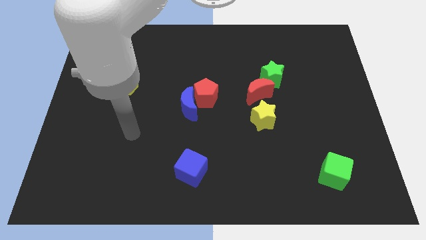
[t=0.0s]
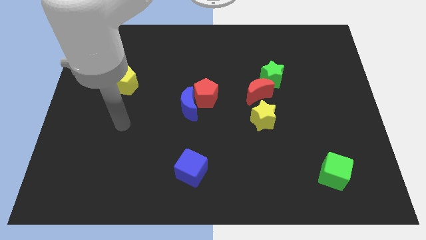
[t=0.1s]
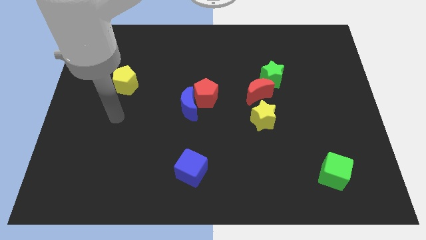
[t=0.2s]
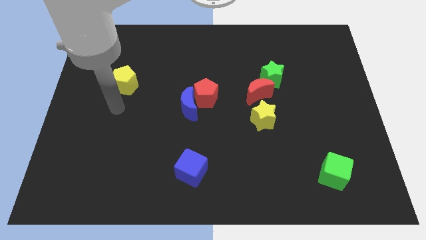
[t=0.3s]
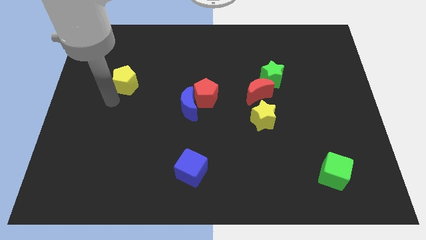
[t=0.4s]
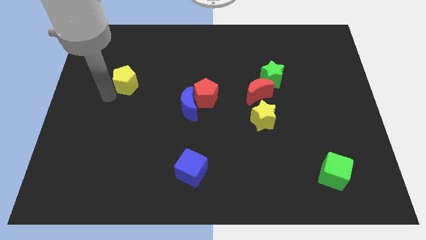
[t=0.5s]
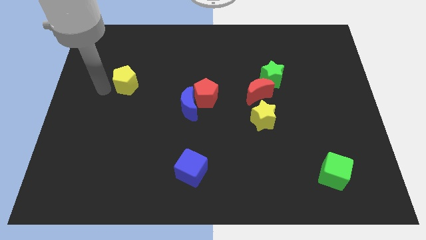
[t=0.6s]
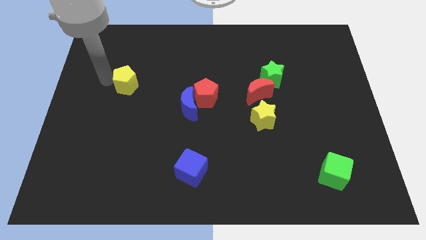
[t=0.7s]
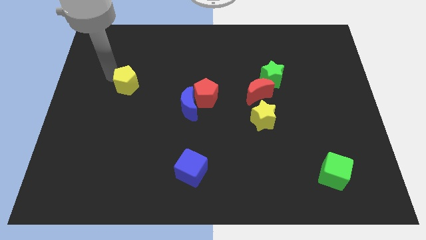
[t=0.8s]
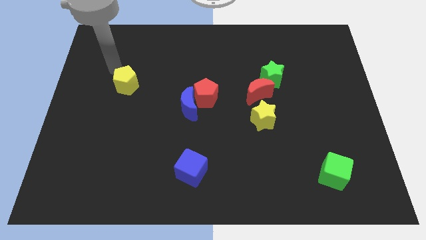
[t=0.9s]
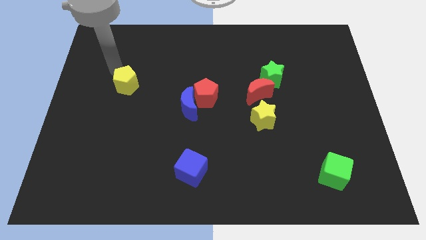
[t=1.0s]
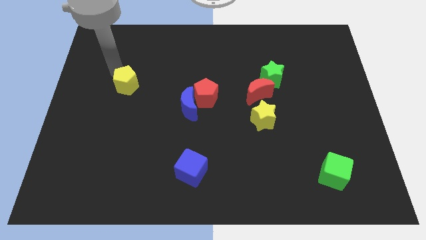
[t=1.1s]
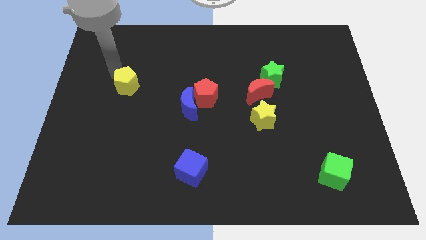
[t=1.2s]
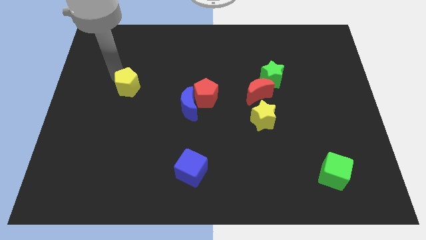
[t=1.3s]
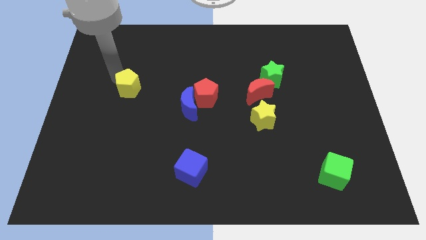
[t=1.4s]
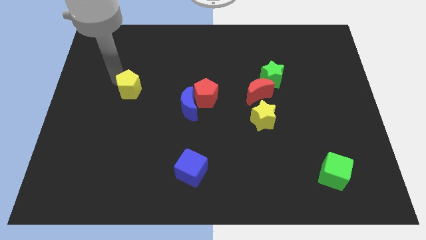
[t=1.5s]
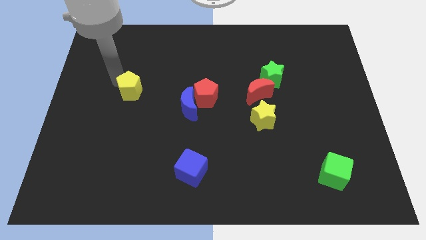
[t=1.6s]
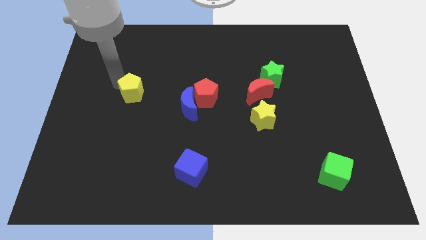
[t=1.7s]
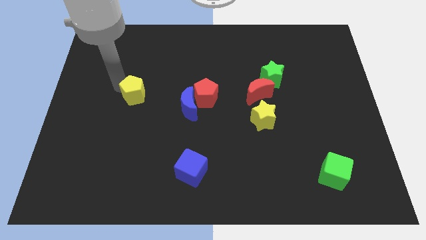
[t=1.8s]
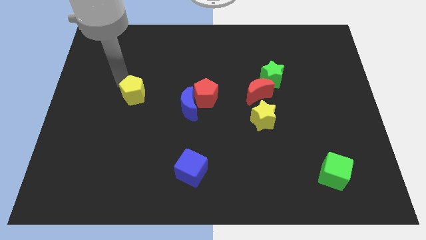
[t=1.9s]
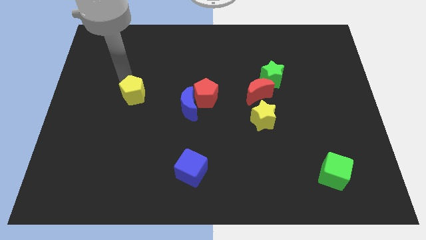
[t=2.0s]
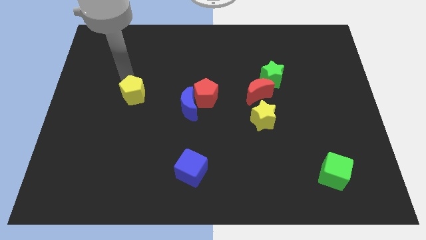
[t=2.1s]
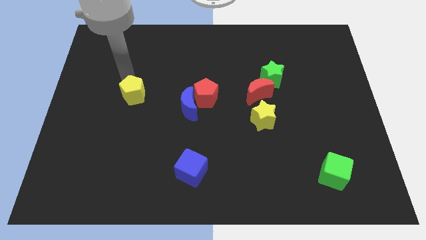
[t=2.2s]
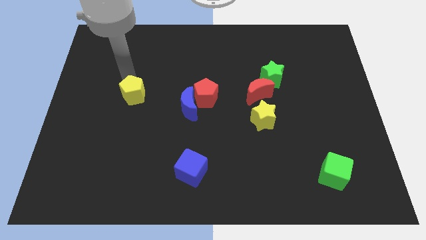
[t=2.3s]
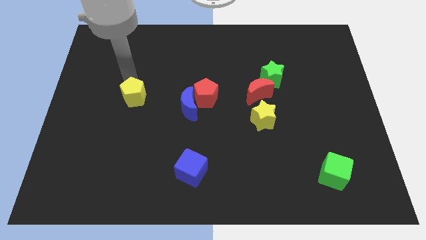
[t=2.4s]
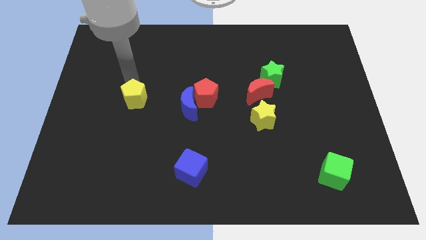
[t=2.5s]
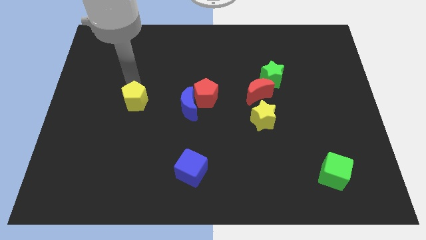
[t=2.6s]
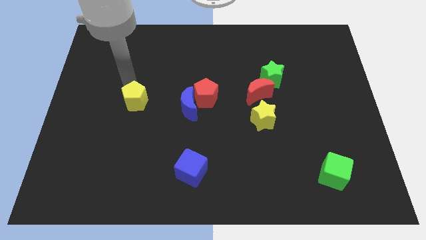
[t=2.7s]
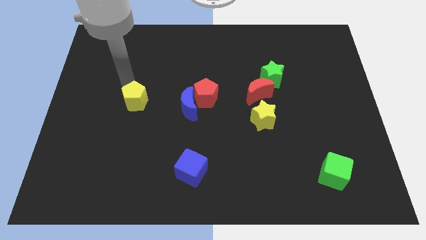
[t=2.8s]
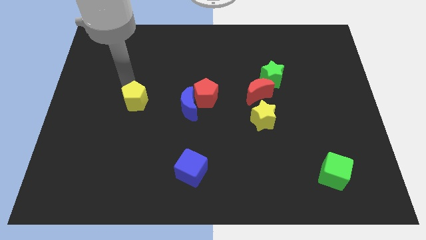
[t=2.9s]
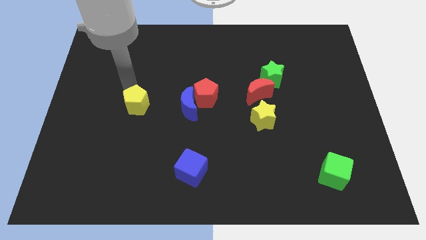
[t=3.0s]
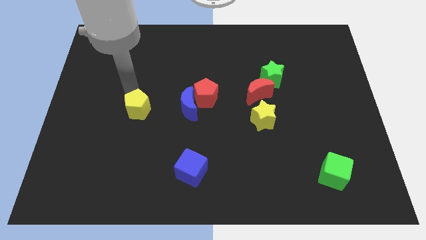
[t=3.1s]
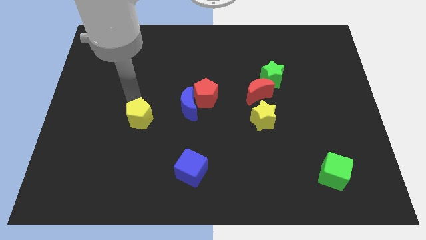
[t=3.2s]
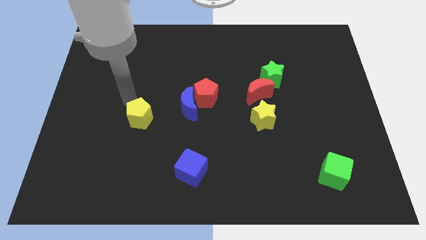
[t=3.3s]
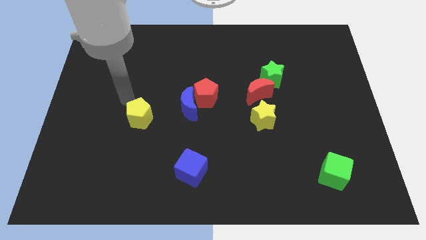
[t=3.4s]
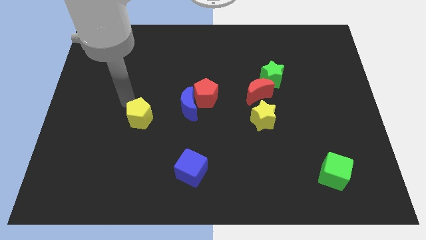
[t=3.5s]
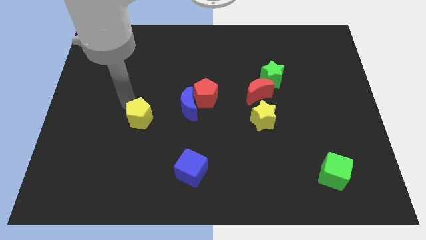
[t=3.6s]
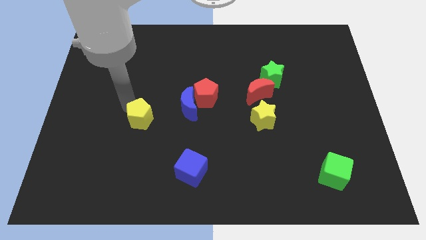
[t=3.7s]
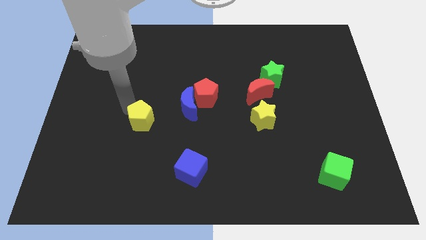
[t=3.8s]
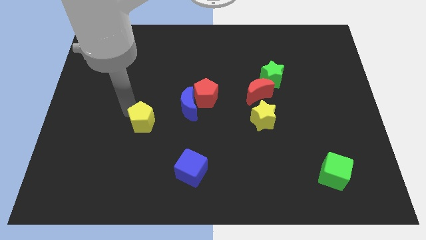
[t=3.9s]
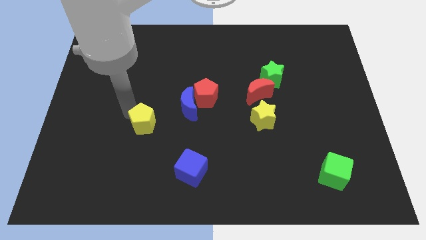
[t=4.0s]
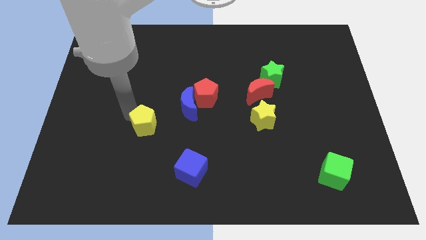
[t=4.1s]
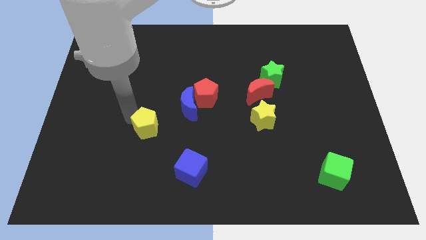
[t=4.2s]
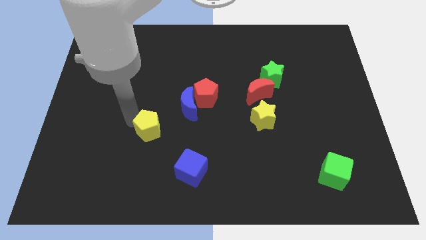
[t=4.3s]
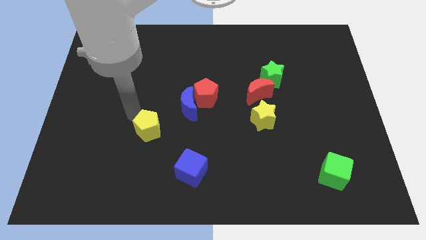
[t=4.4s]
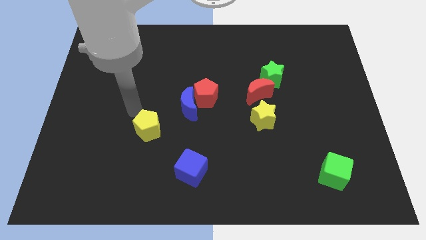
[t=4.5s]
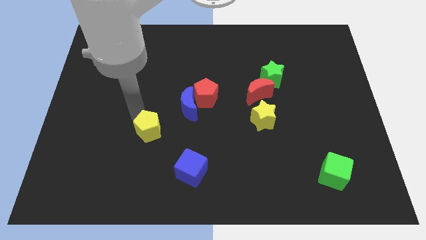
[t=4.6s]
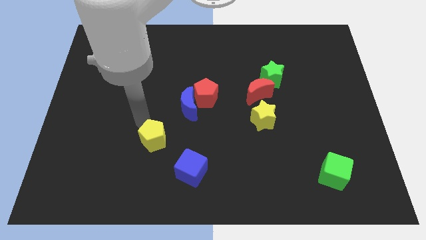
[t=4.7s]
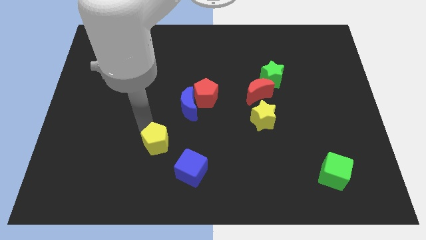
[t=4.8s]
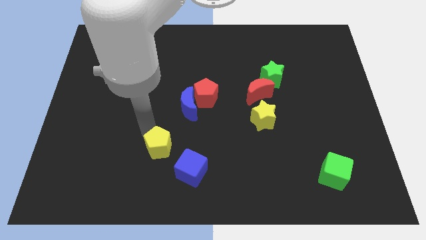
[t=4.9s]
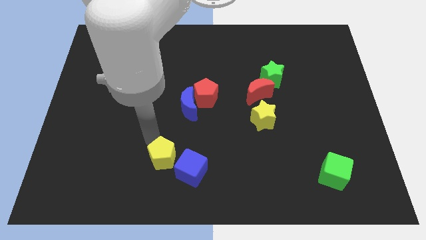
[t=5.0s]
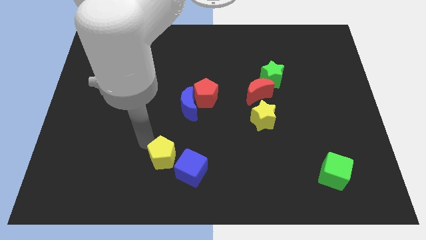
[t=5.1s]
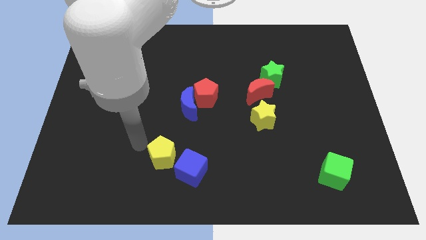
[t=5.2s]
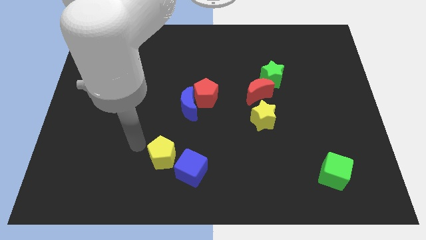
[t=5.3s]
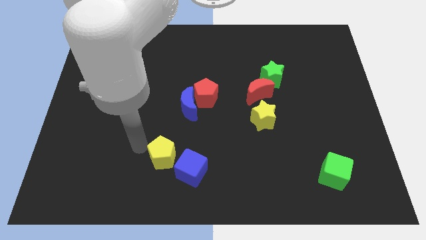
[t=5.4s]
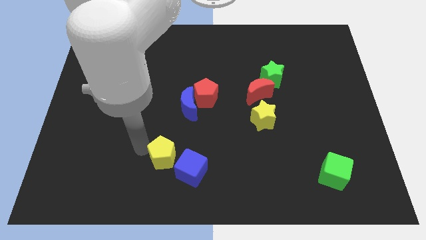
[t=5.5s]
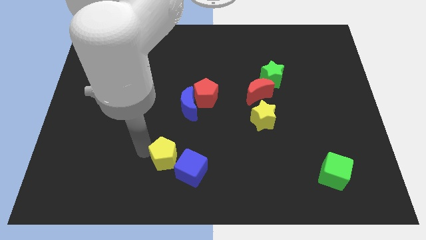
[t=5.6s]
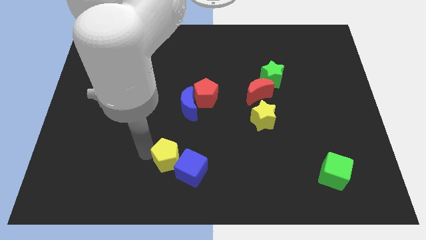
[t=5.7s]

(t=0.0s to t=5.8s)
slide the yellow pentagon to the blue cube

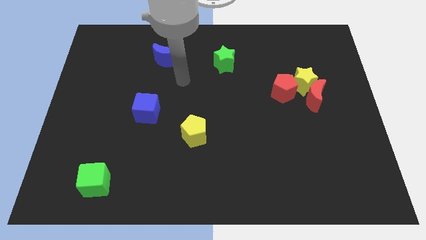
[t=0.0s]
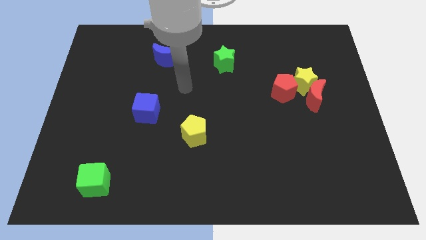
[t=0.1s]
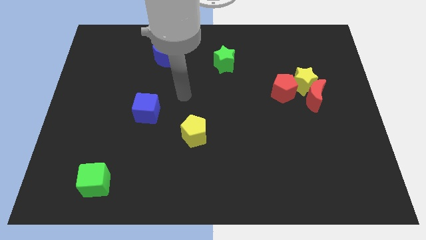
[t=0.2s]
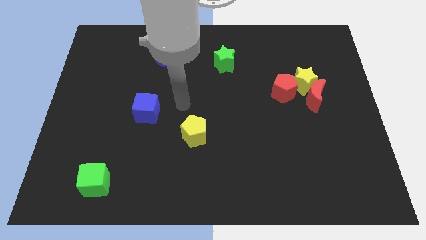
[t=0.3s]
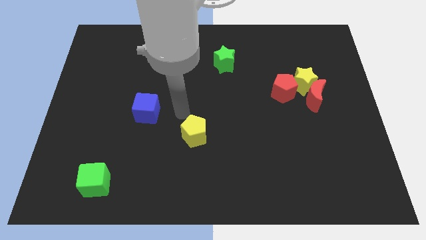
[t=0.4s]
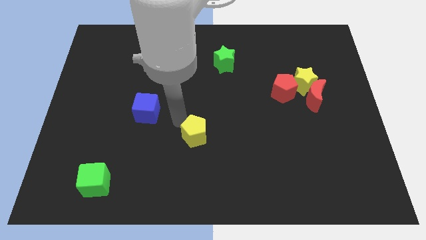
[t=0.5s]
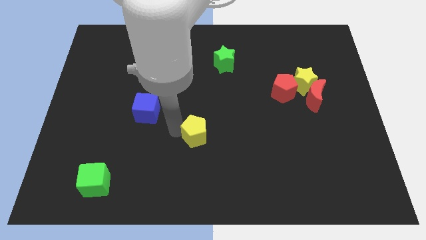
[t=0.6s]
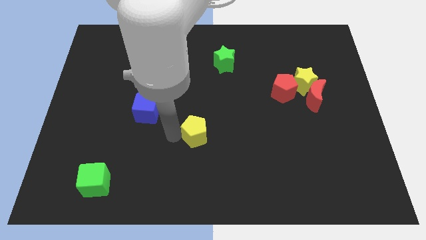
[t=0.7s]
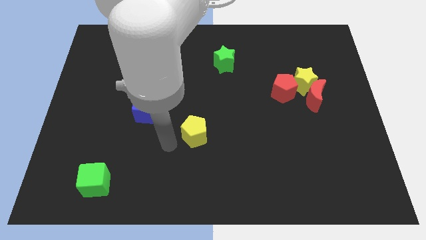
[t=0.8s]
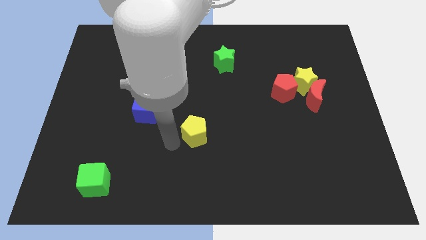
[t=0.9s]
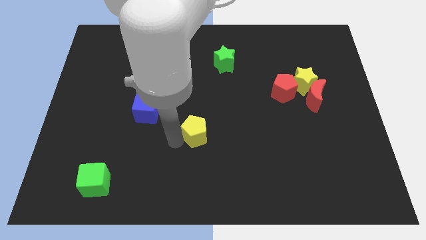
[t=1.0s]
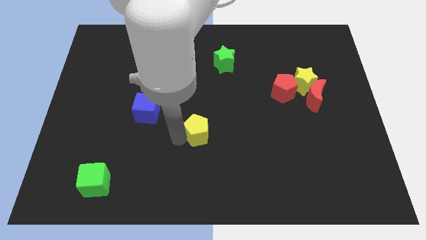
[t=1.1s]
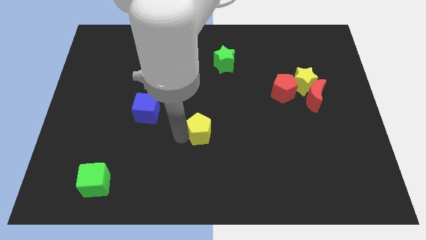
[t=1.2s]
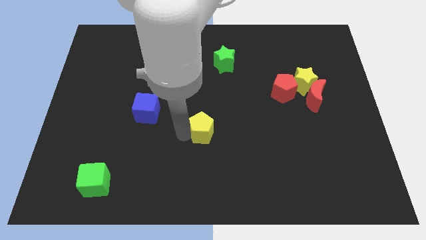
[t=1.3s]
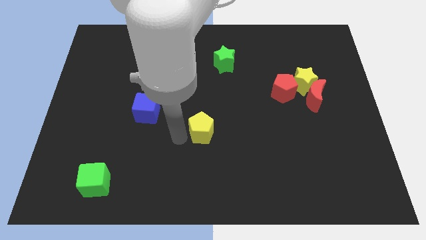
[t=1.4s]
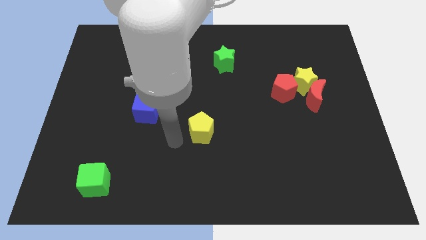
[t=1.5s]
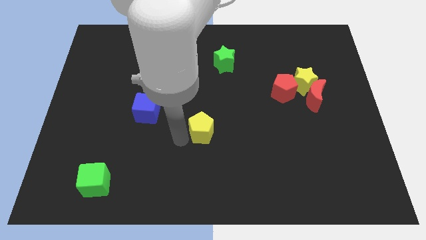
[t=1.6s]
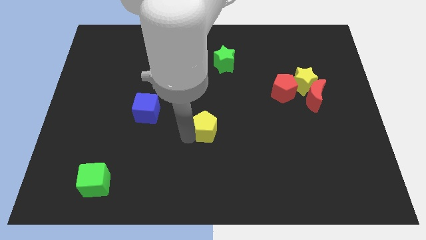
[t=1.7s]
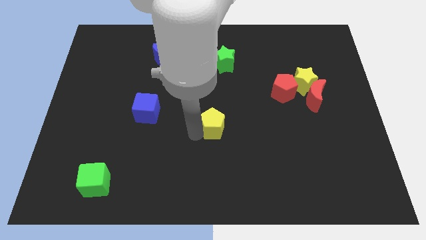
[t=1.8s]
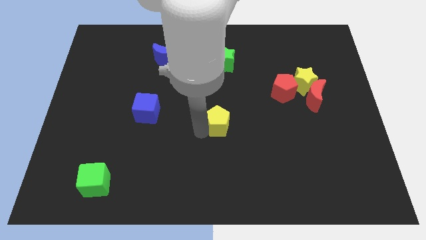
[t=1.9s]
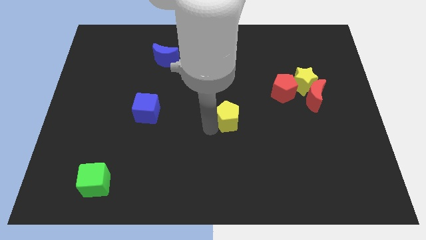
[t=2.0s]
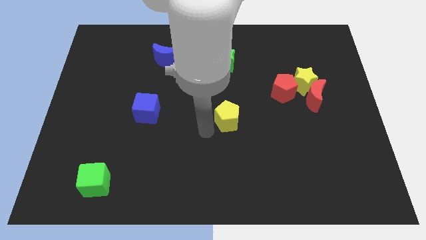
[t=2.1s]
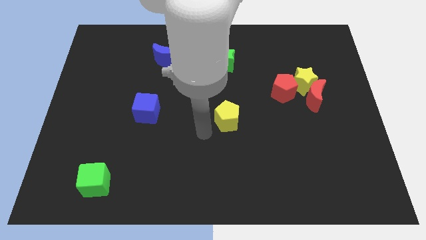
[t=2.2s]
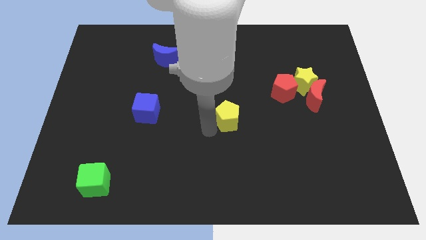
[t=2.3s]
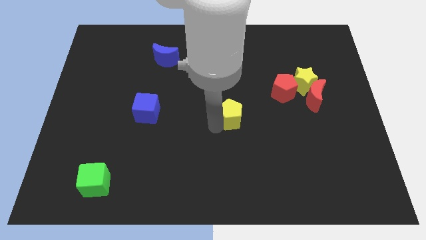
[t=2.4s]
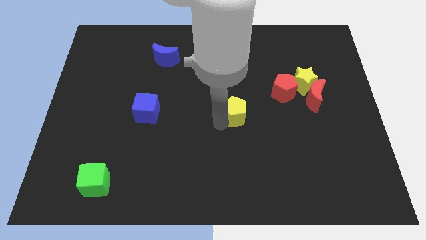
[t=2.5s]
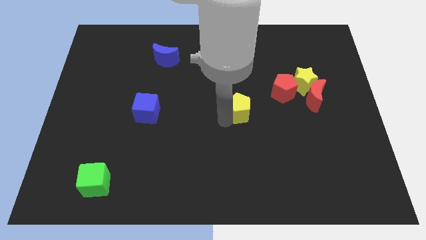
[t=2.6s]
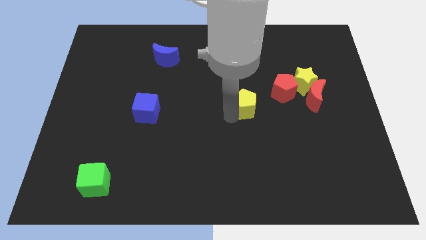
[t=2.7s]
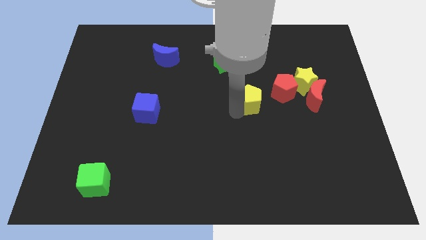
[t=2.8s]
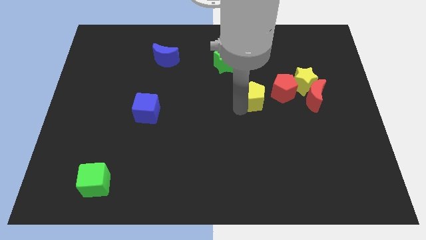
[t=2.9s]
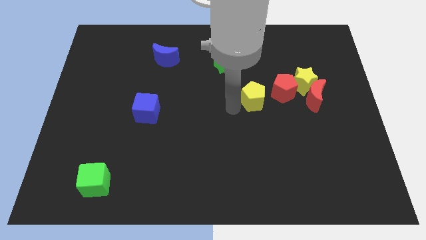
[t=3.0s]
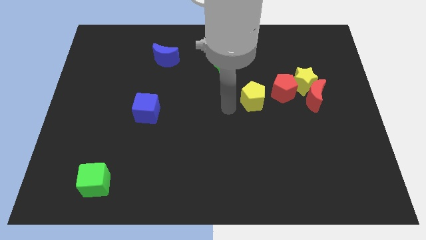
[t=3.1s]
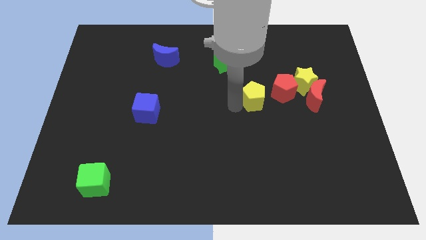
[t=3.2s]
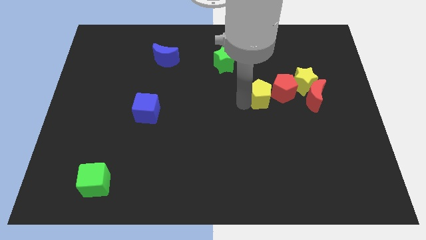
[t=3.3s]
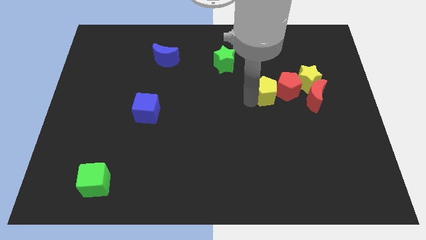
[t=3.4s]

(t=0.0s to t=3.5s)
push the yellow pentagon towards the red pentagon
